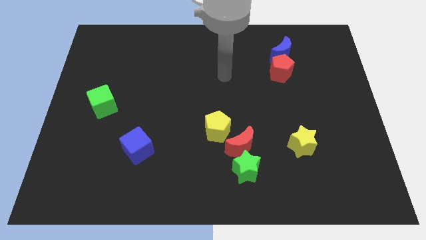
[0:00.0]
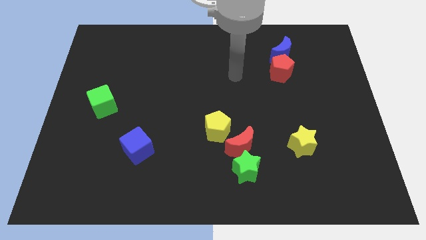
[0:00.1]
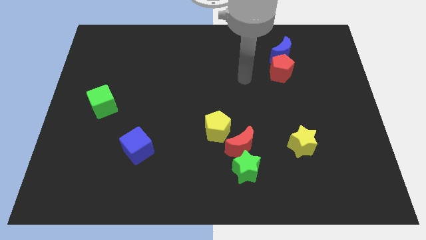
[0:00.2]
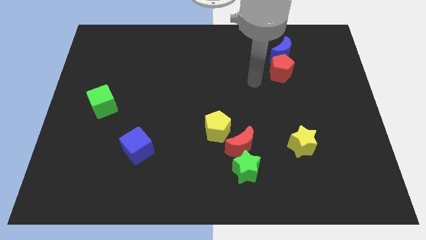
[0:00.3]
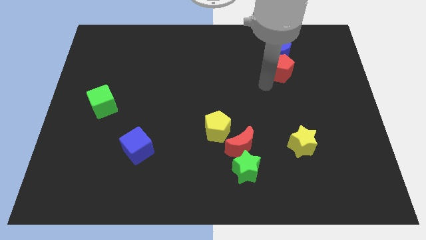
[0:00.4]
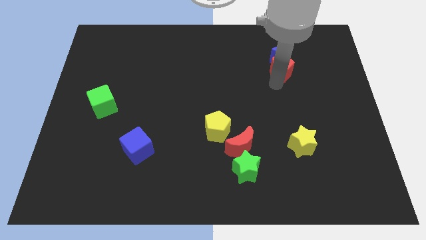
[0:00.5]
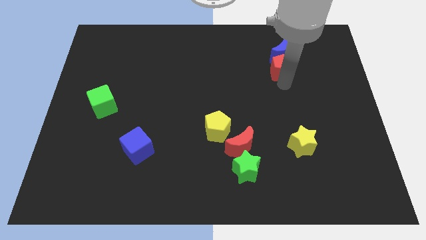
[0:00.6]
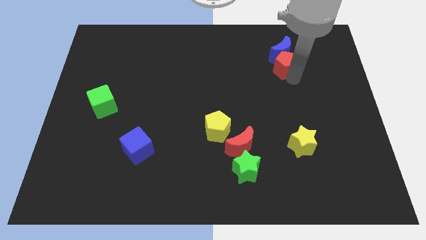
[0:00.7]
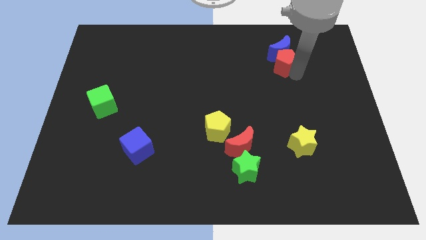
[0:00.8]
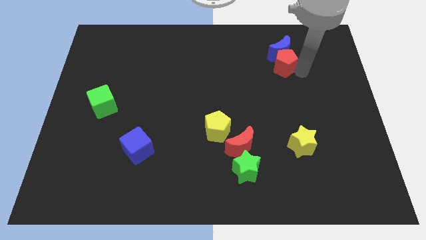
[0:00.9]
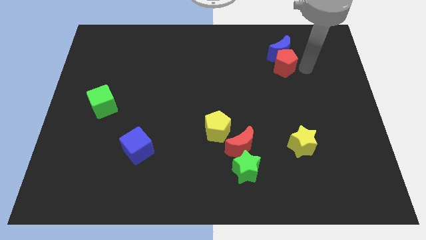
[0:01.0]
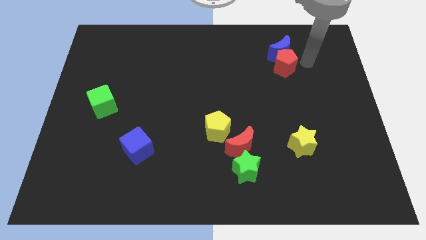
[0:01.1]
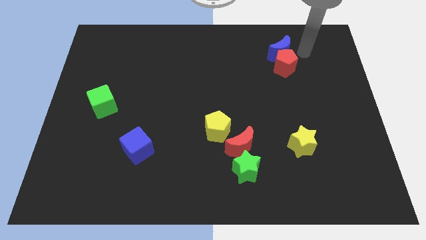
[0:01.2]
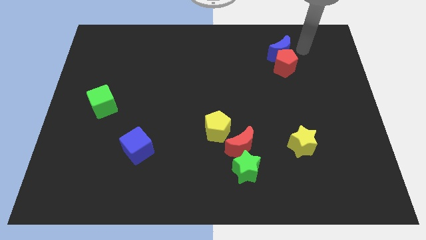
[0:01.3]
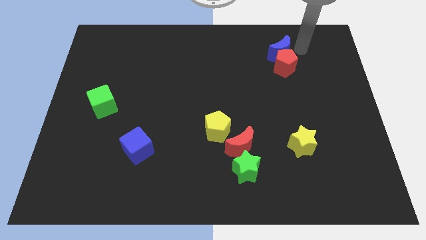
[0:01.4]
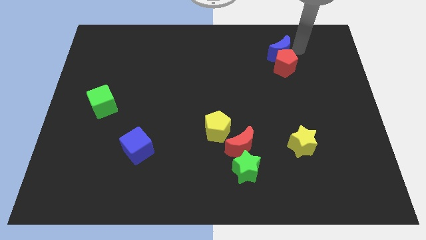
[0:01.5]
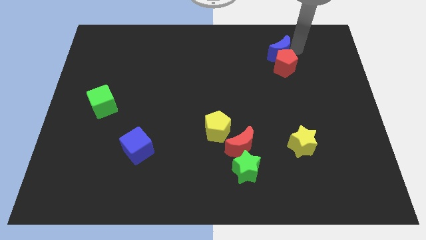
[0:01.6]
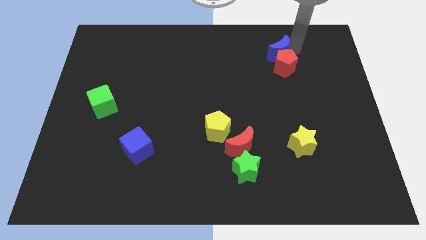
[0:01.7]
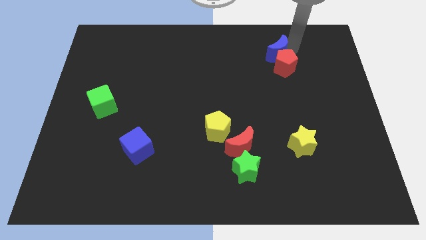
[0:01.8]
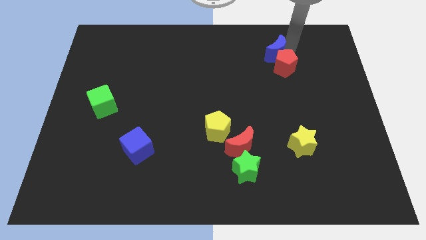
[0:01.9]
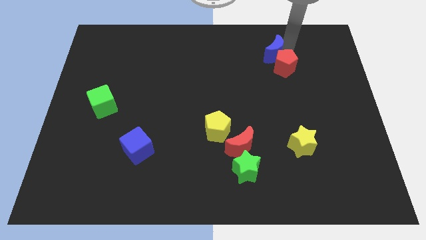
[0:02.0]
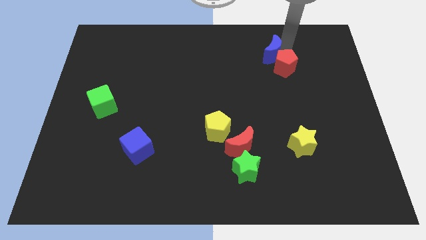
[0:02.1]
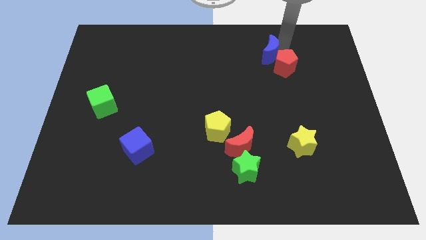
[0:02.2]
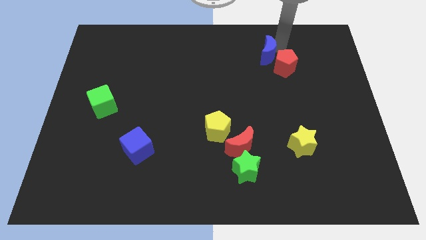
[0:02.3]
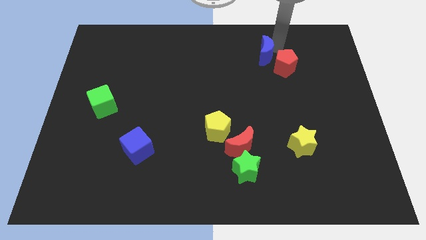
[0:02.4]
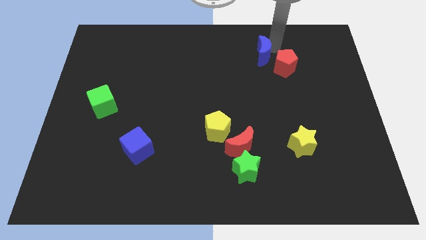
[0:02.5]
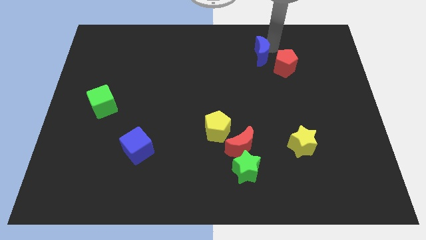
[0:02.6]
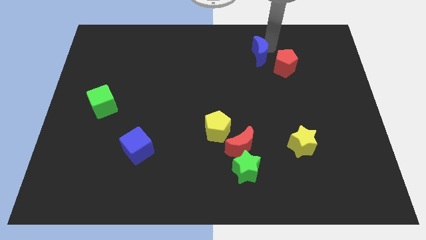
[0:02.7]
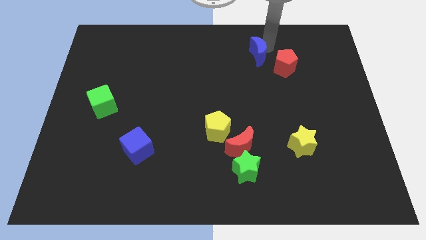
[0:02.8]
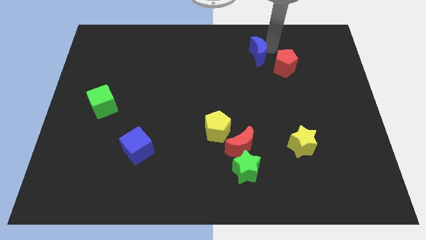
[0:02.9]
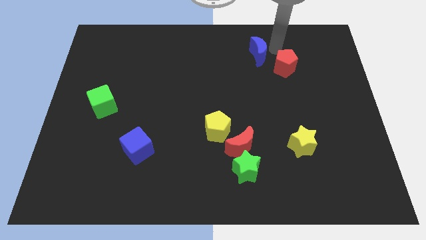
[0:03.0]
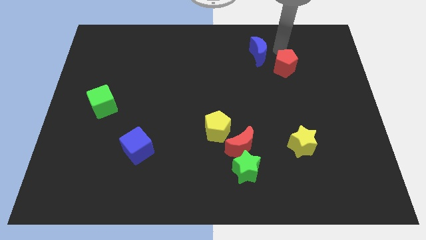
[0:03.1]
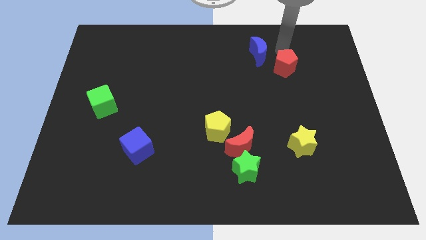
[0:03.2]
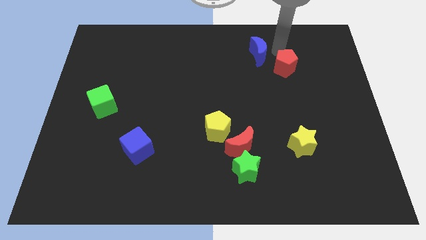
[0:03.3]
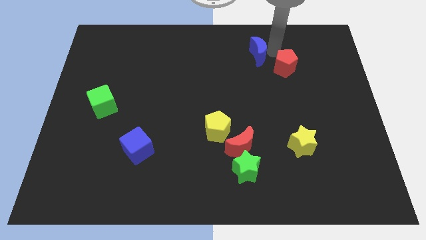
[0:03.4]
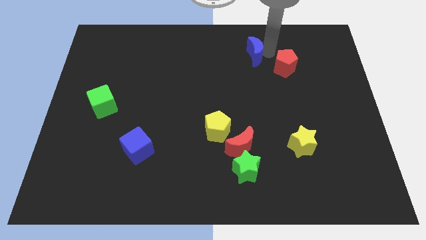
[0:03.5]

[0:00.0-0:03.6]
slightly push the blue moon to the left

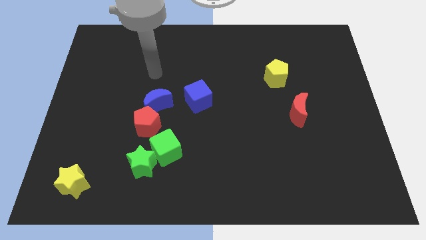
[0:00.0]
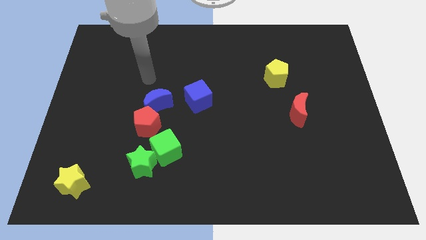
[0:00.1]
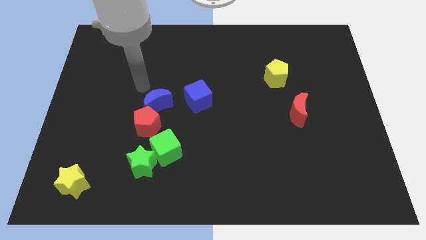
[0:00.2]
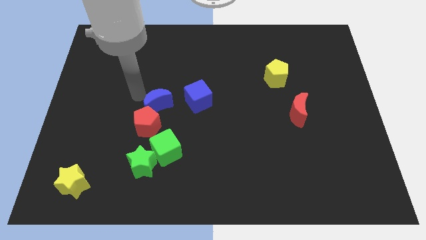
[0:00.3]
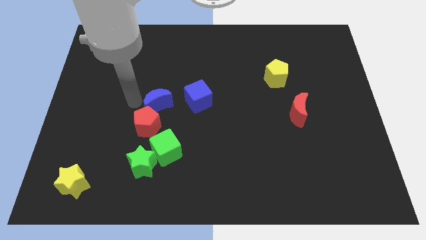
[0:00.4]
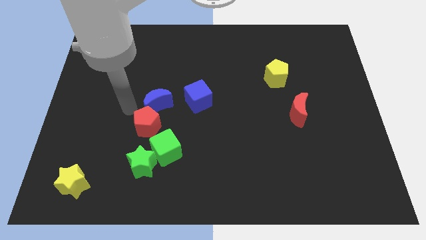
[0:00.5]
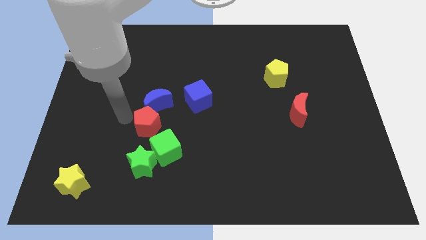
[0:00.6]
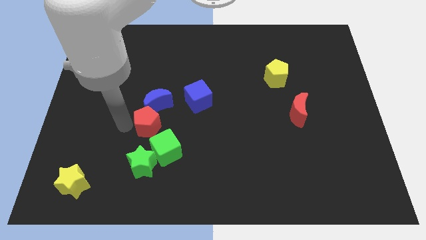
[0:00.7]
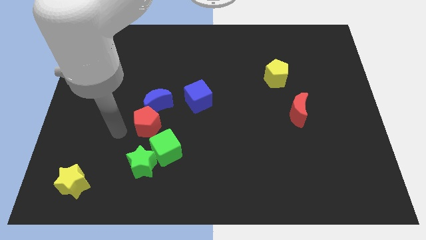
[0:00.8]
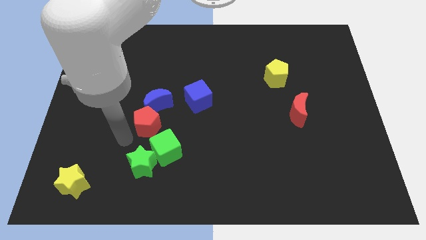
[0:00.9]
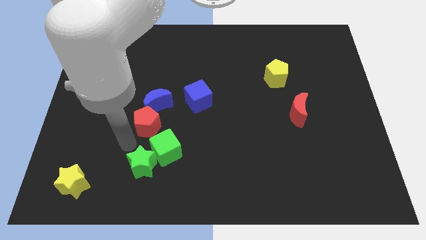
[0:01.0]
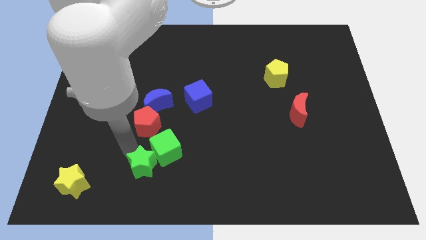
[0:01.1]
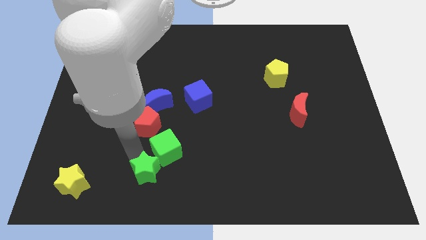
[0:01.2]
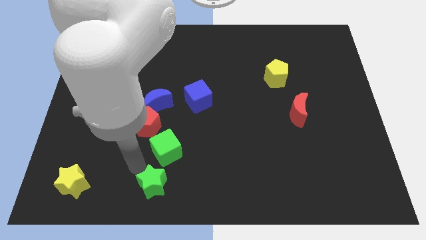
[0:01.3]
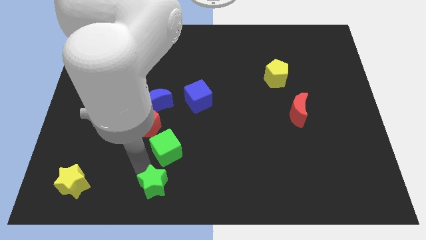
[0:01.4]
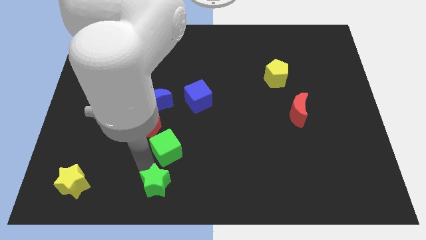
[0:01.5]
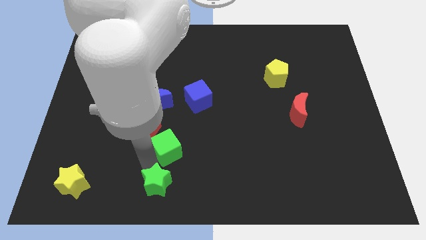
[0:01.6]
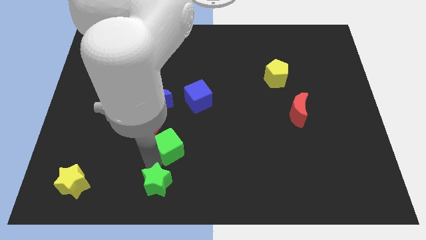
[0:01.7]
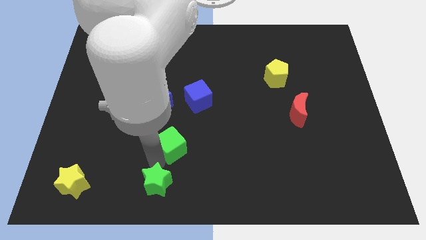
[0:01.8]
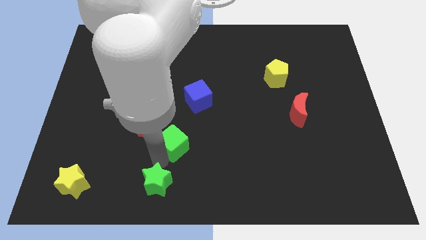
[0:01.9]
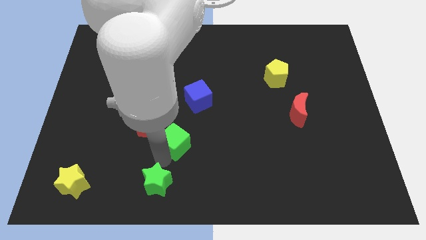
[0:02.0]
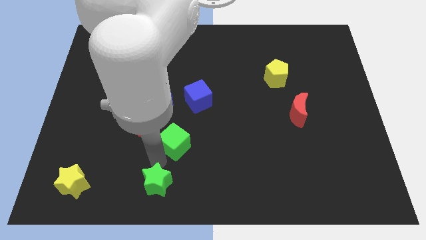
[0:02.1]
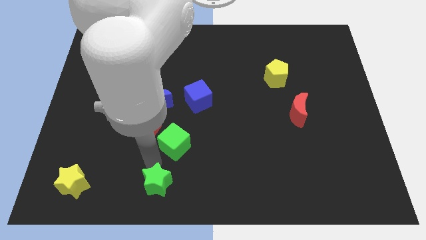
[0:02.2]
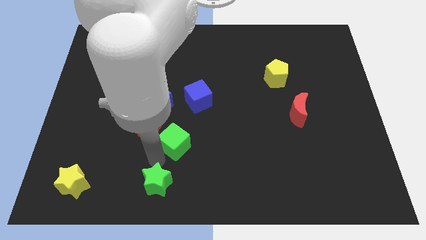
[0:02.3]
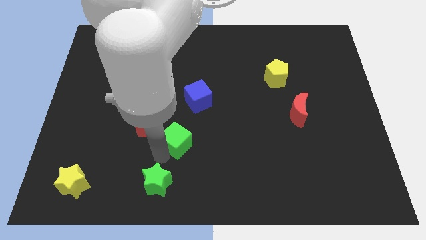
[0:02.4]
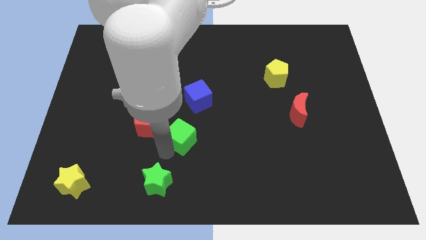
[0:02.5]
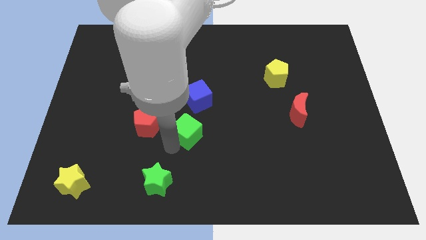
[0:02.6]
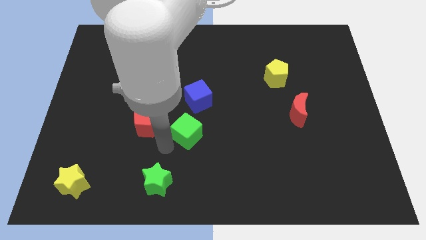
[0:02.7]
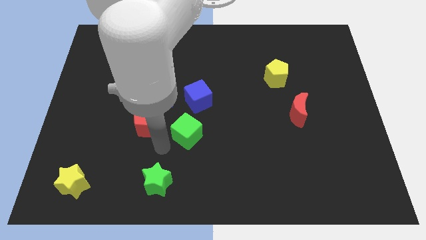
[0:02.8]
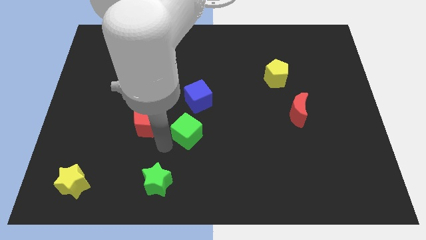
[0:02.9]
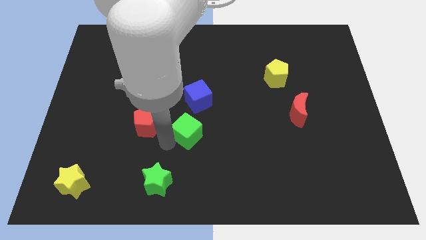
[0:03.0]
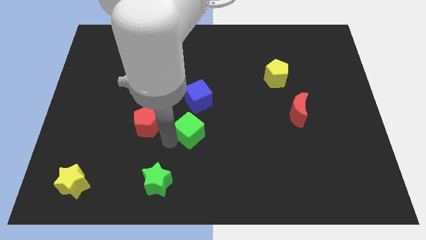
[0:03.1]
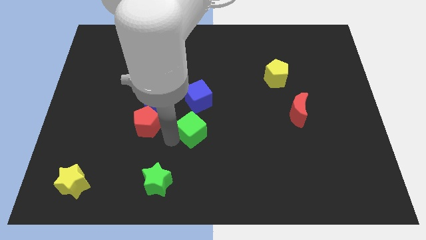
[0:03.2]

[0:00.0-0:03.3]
slide the green cube a little bit upwards and then to the right

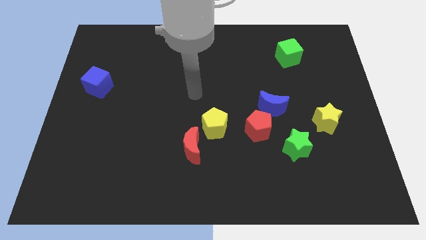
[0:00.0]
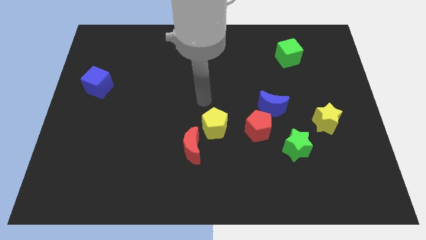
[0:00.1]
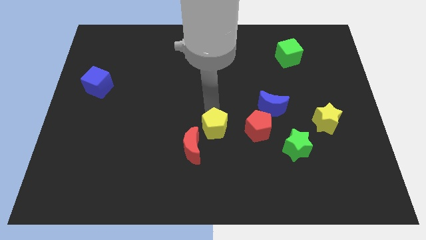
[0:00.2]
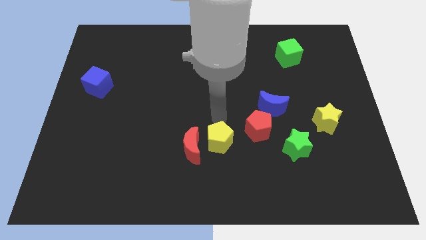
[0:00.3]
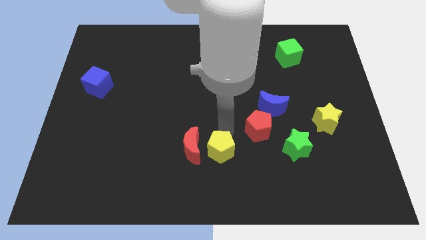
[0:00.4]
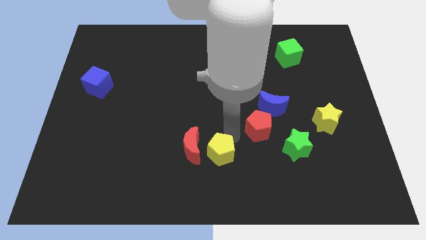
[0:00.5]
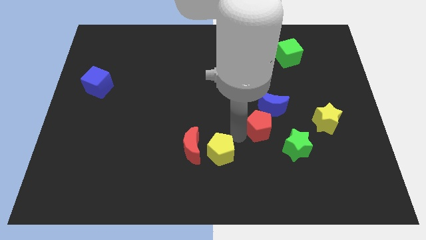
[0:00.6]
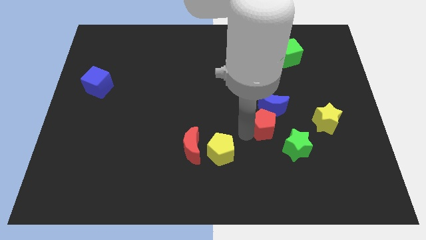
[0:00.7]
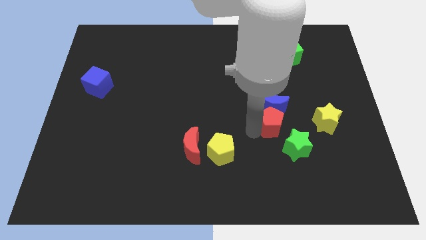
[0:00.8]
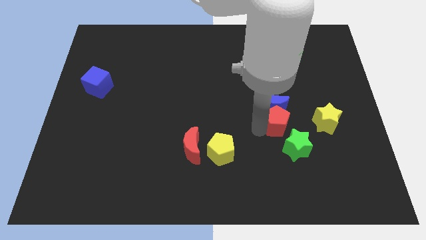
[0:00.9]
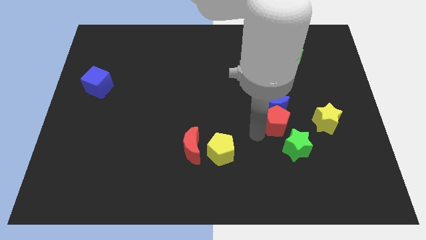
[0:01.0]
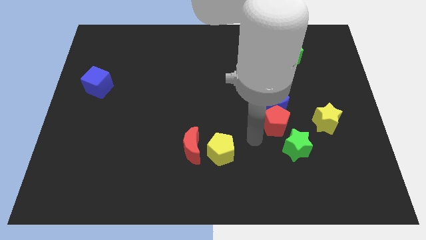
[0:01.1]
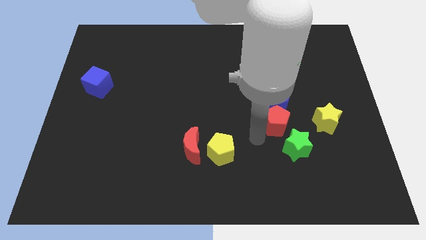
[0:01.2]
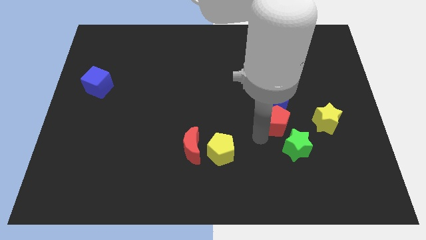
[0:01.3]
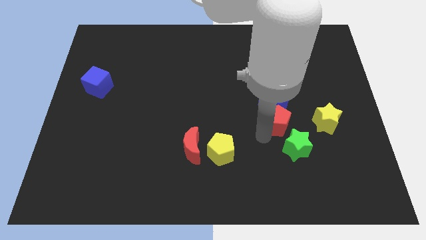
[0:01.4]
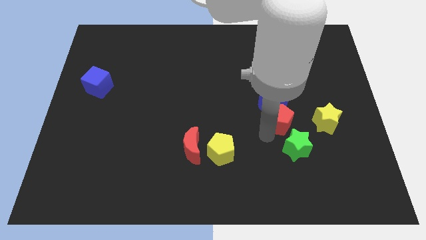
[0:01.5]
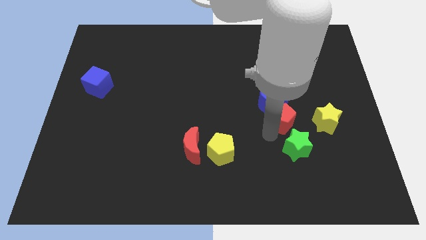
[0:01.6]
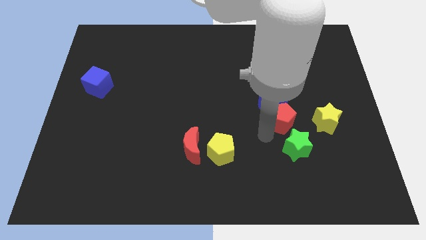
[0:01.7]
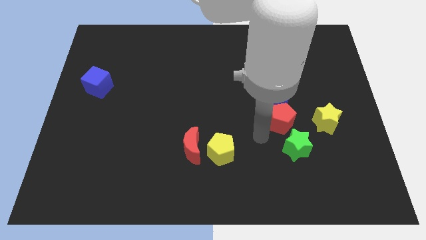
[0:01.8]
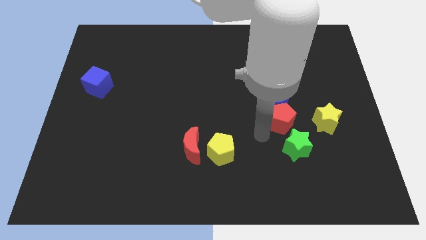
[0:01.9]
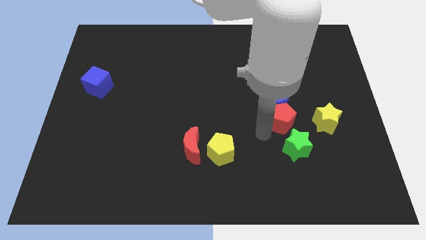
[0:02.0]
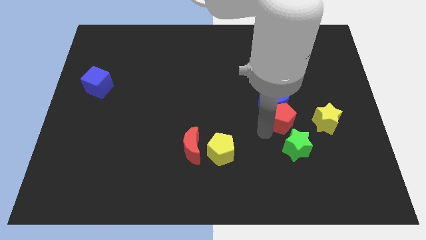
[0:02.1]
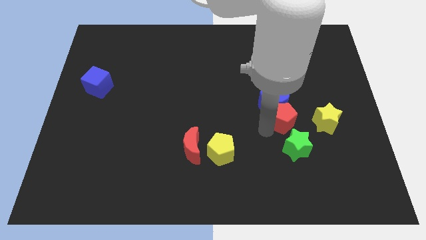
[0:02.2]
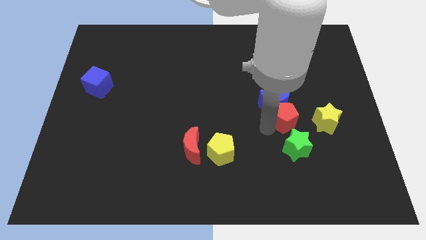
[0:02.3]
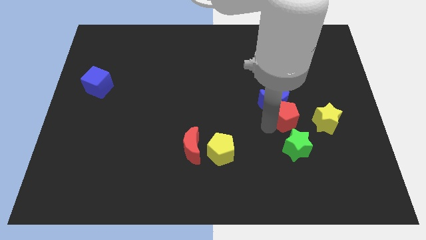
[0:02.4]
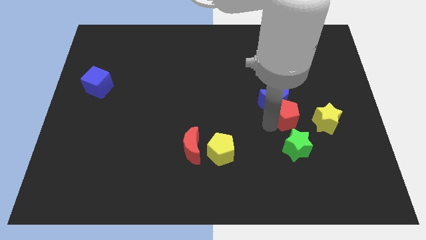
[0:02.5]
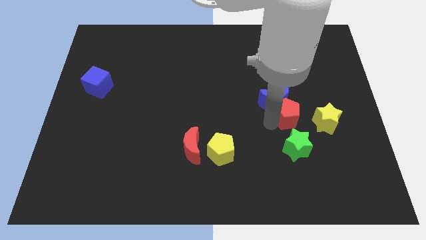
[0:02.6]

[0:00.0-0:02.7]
push the red pentagon a little upwards and right
